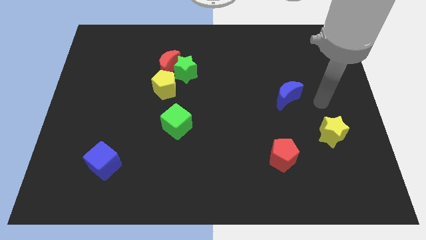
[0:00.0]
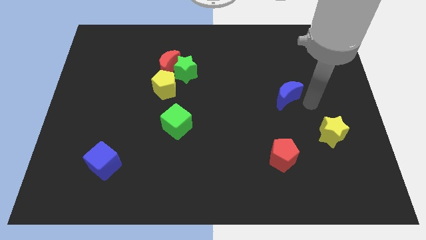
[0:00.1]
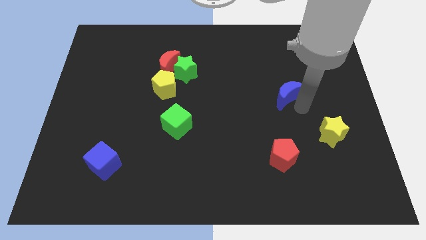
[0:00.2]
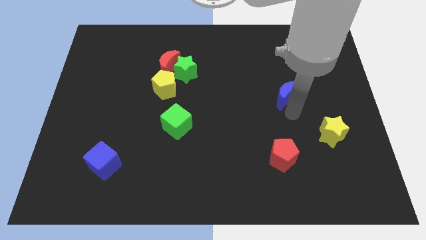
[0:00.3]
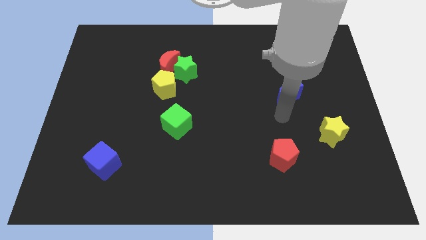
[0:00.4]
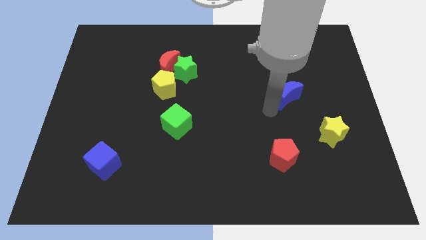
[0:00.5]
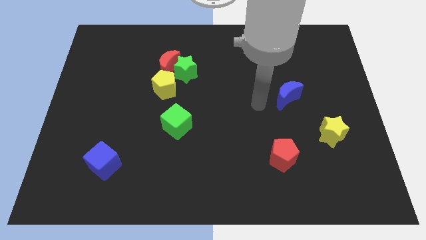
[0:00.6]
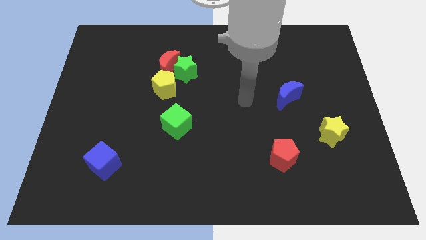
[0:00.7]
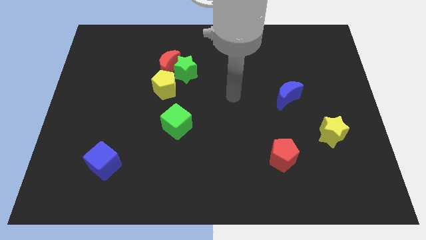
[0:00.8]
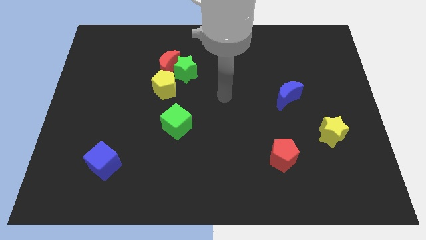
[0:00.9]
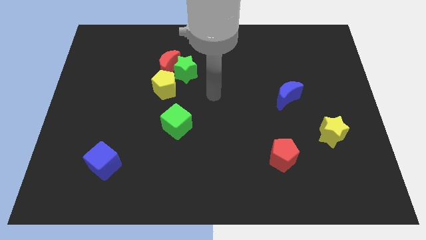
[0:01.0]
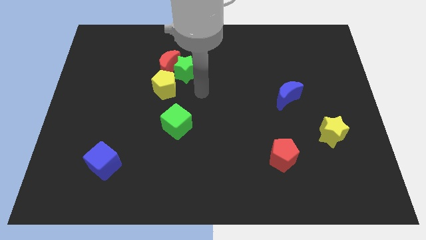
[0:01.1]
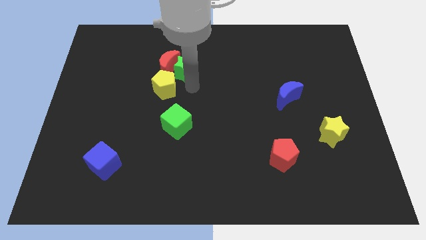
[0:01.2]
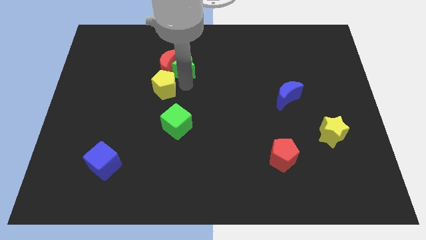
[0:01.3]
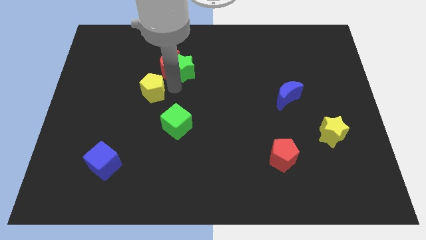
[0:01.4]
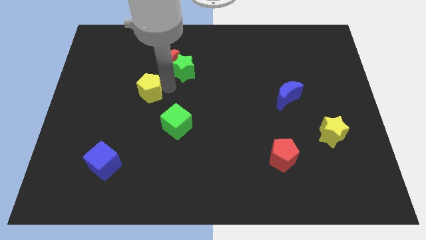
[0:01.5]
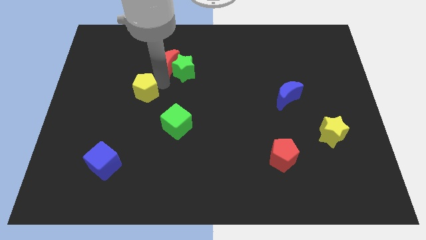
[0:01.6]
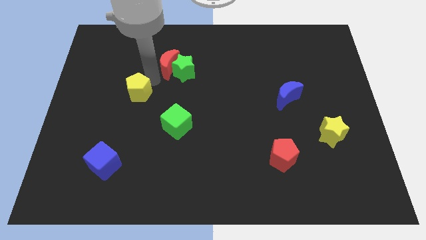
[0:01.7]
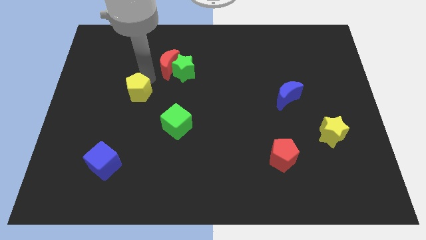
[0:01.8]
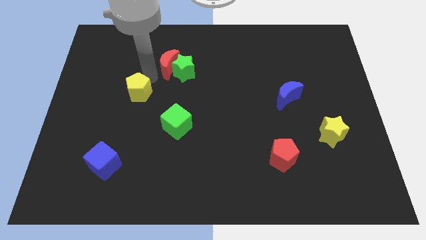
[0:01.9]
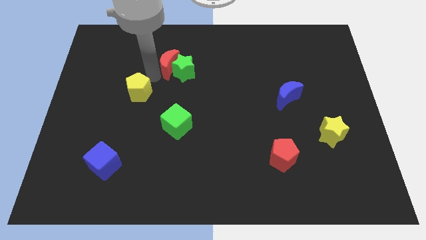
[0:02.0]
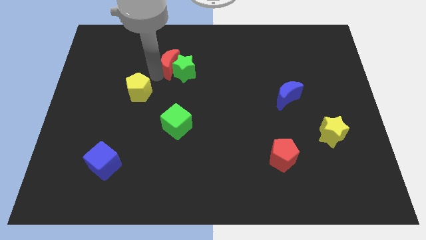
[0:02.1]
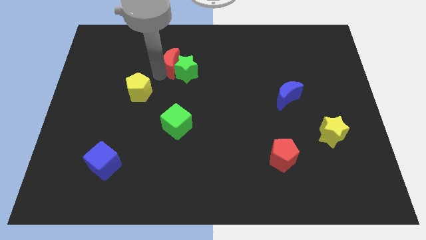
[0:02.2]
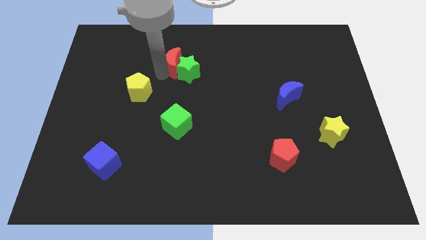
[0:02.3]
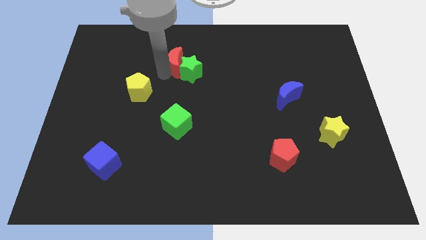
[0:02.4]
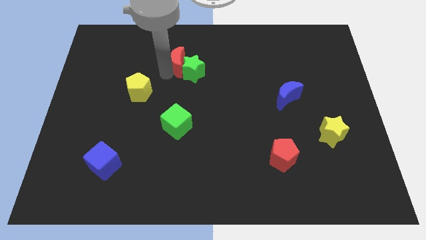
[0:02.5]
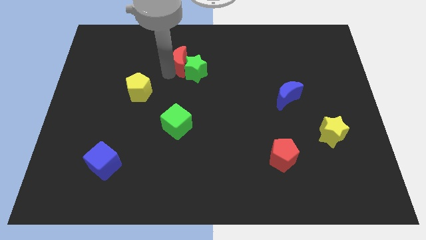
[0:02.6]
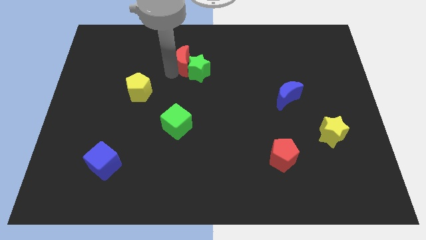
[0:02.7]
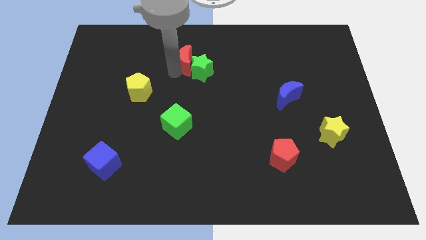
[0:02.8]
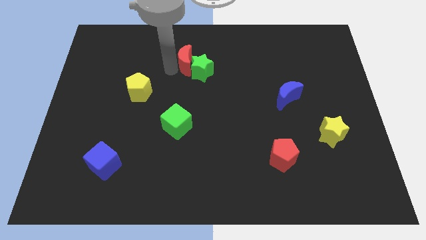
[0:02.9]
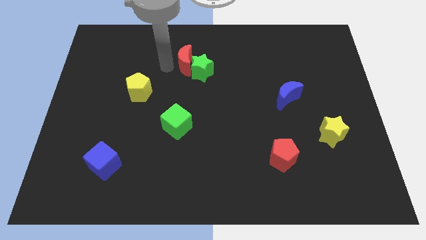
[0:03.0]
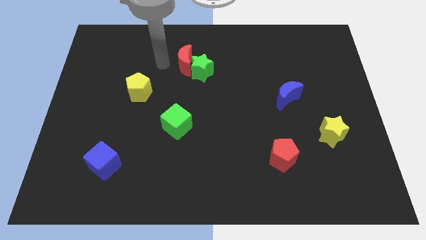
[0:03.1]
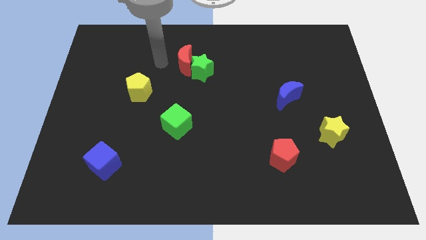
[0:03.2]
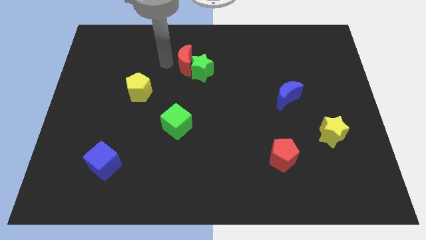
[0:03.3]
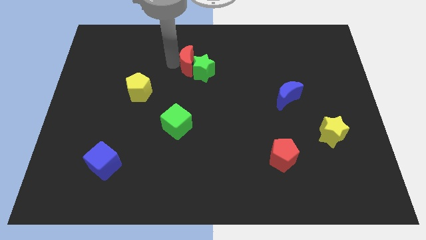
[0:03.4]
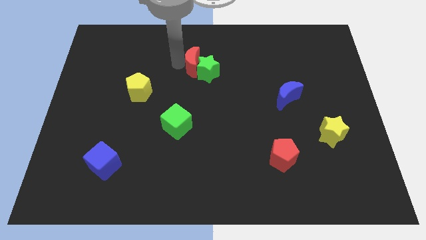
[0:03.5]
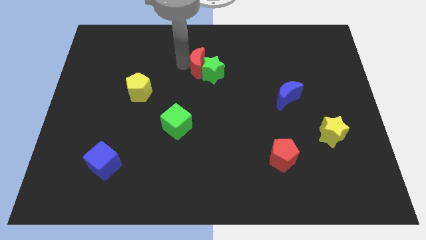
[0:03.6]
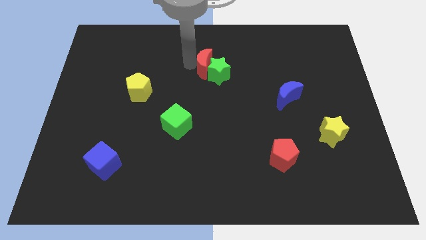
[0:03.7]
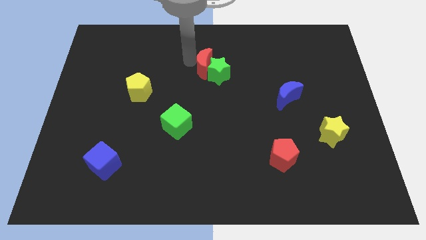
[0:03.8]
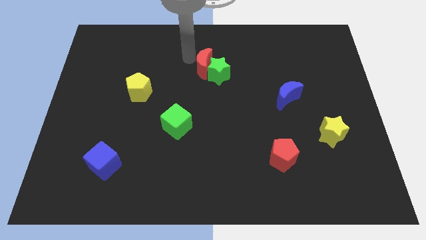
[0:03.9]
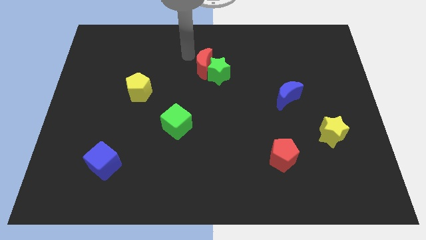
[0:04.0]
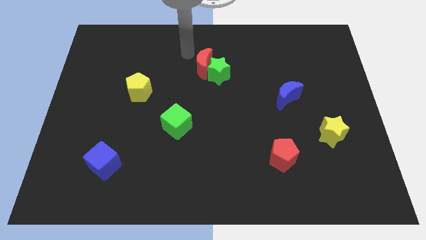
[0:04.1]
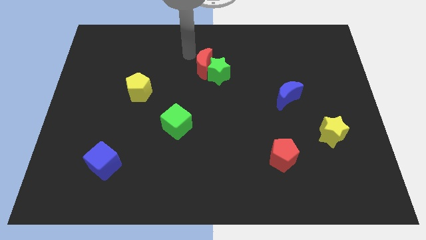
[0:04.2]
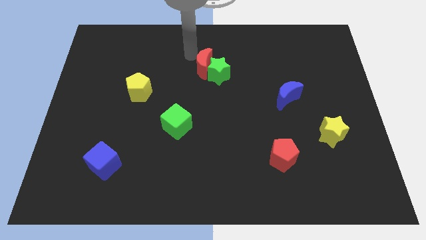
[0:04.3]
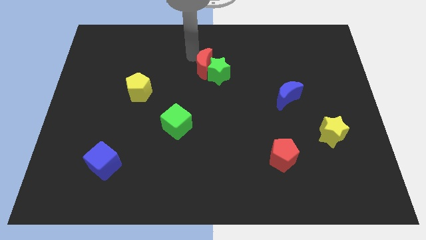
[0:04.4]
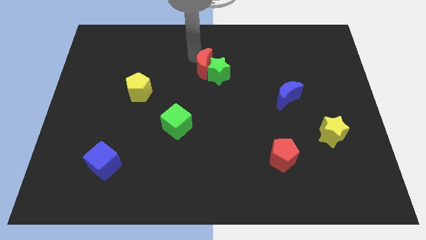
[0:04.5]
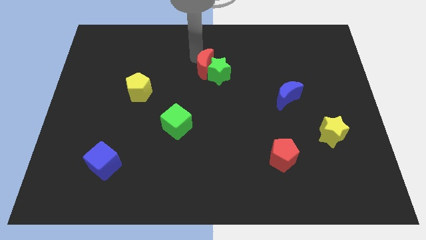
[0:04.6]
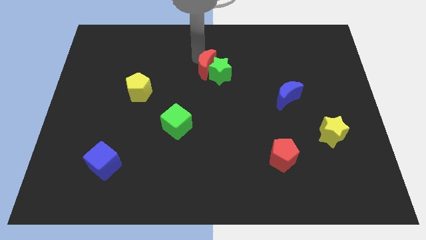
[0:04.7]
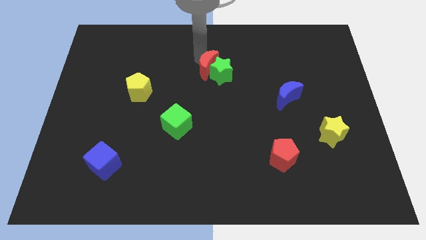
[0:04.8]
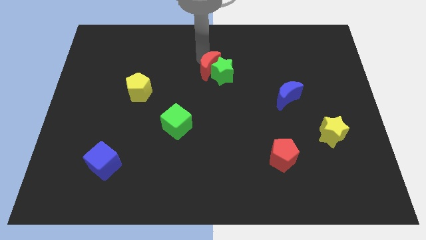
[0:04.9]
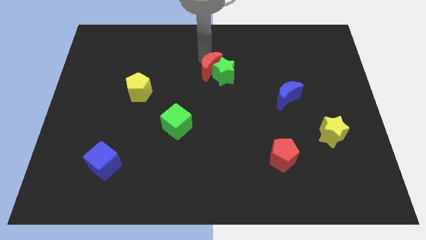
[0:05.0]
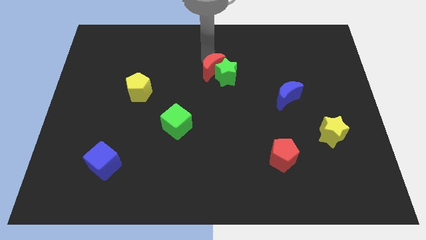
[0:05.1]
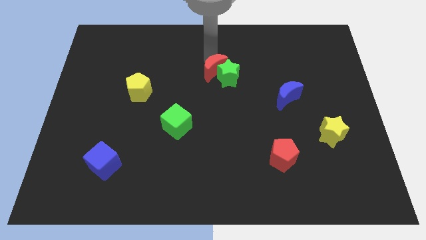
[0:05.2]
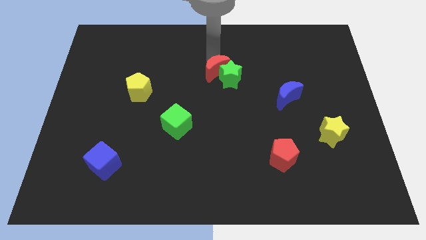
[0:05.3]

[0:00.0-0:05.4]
slightly move the red moon diagonally down and right

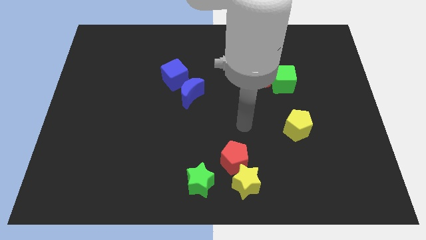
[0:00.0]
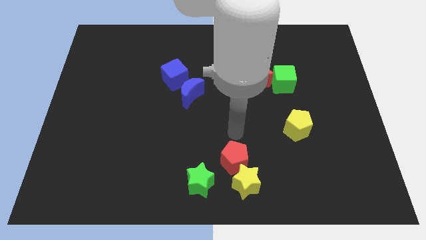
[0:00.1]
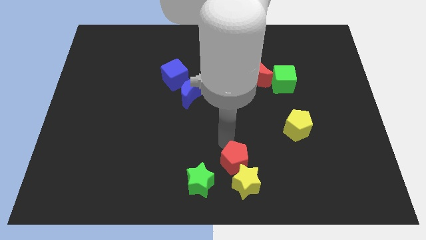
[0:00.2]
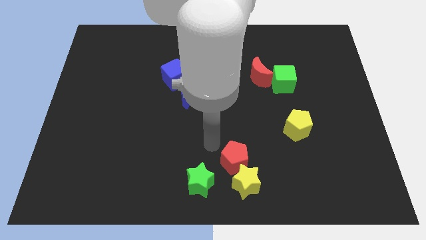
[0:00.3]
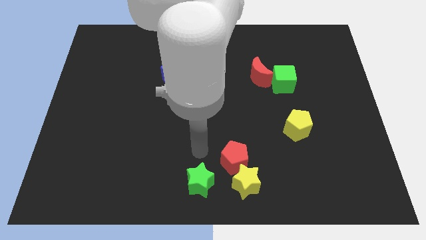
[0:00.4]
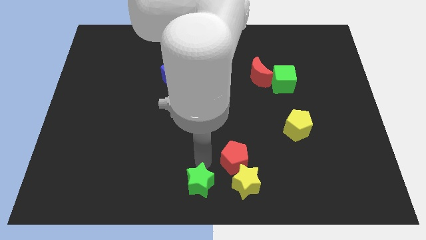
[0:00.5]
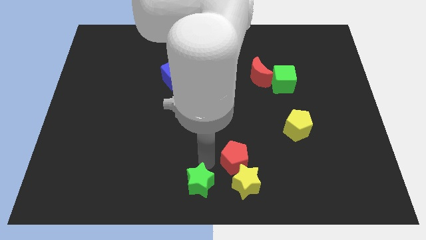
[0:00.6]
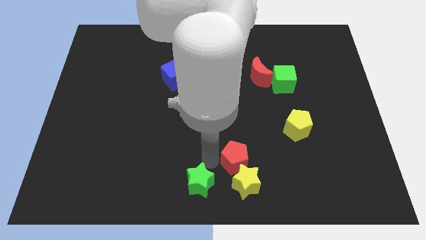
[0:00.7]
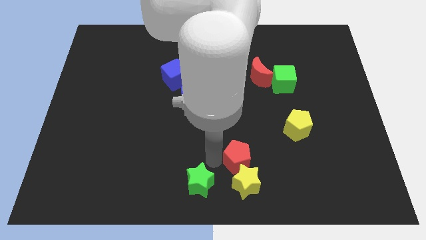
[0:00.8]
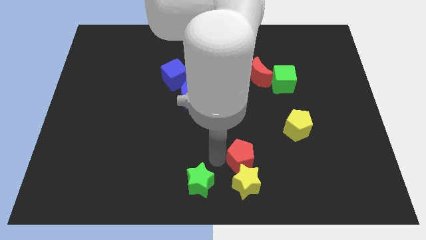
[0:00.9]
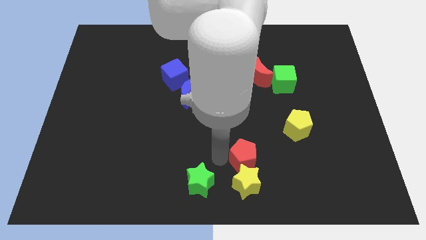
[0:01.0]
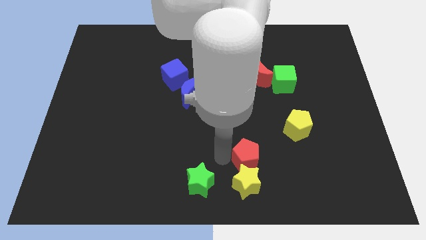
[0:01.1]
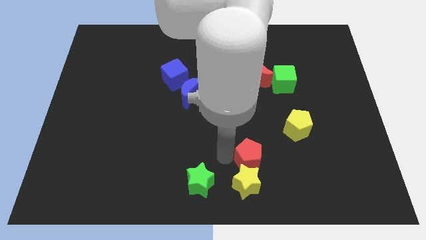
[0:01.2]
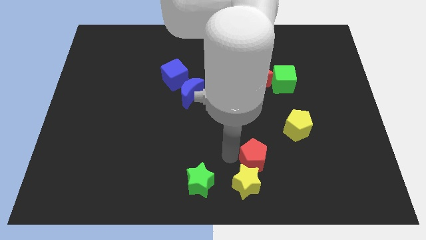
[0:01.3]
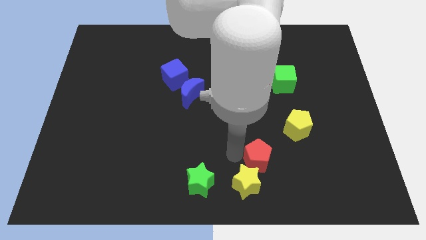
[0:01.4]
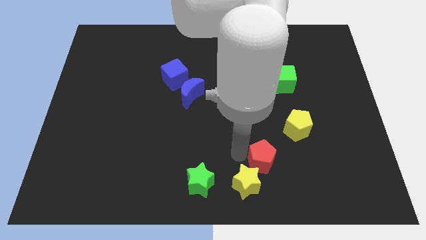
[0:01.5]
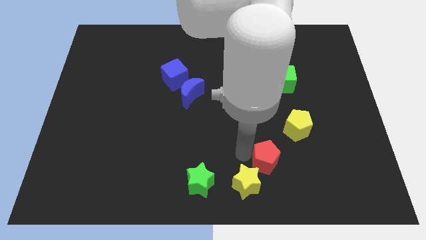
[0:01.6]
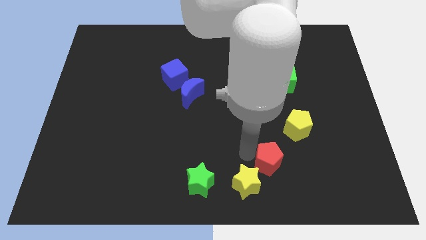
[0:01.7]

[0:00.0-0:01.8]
slightly move the red pentagon to the right

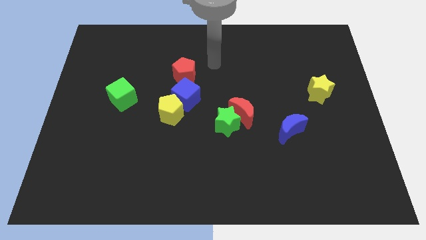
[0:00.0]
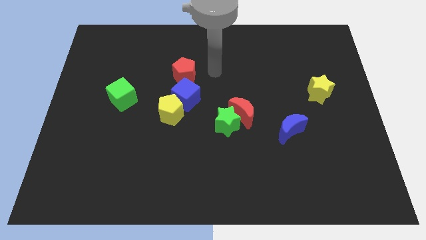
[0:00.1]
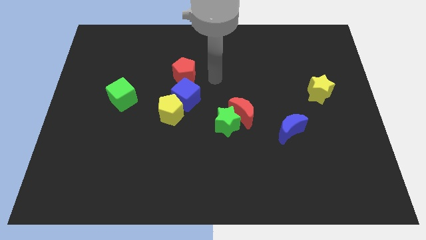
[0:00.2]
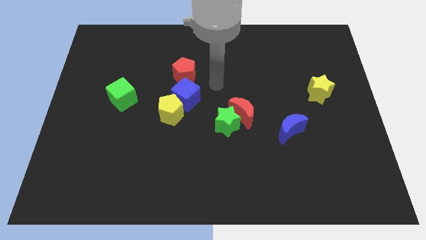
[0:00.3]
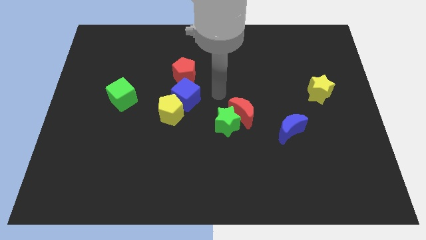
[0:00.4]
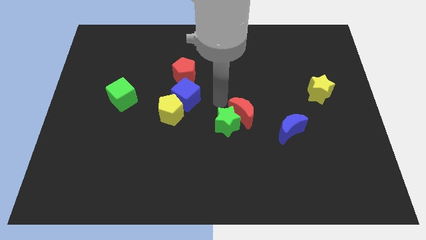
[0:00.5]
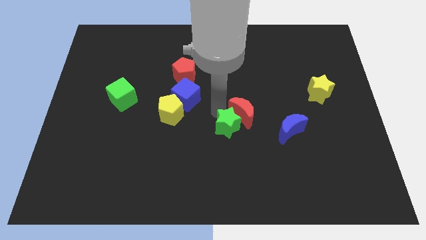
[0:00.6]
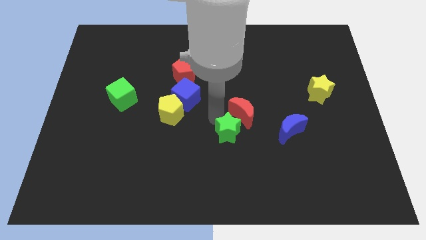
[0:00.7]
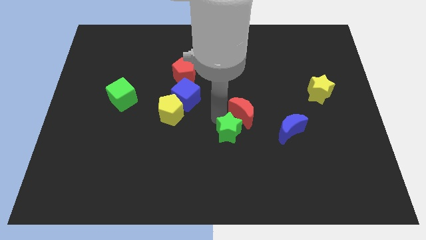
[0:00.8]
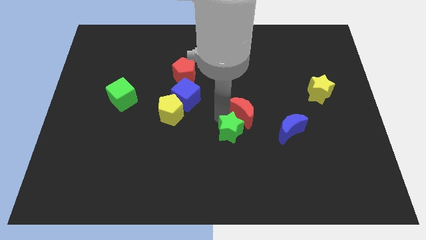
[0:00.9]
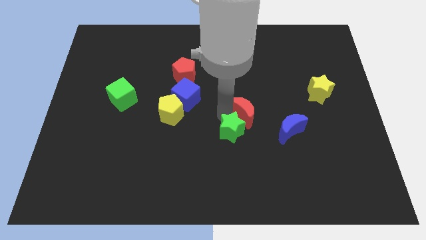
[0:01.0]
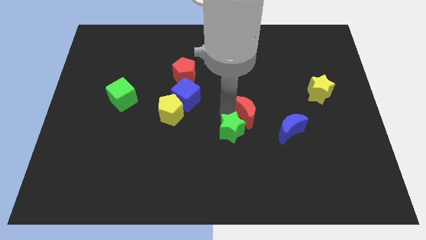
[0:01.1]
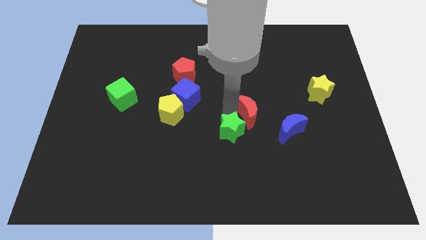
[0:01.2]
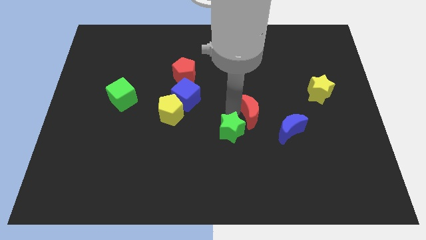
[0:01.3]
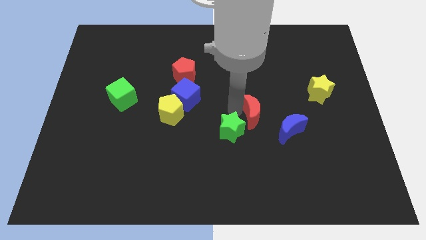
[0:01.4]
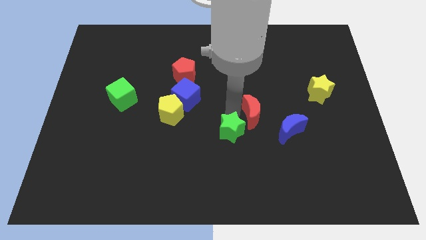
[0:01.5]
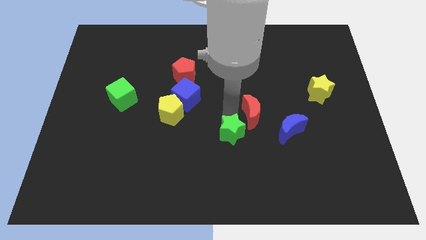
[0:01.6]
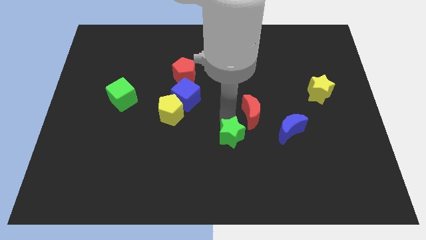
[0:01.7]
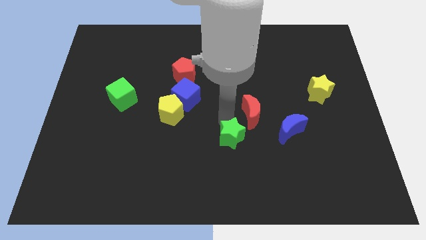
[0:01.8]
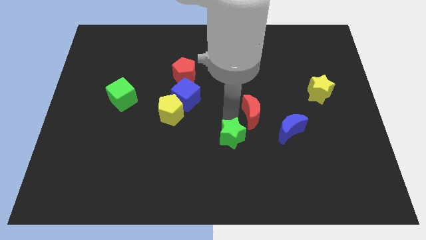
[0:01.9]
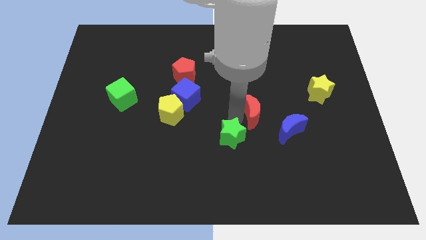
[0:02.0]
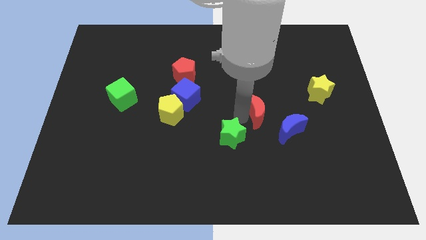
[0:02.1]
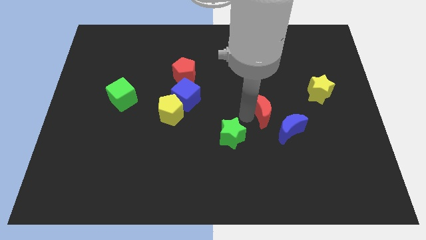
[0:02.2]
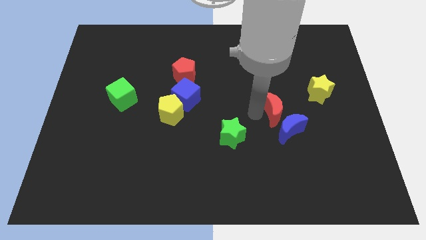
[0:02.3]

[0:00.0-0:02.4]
move the red moon somewhat to the right
